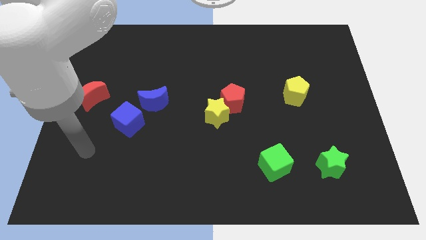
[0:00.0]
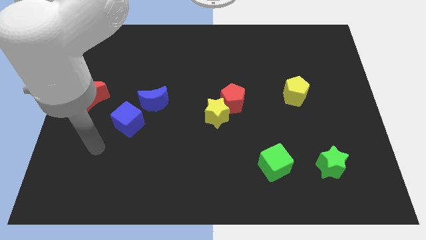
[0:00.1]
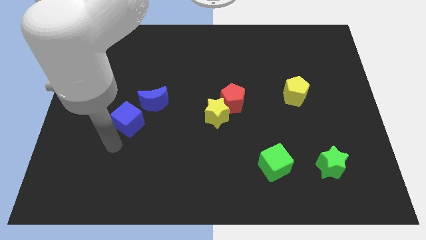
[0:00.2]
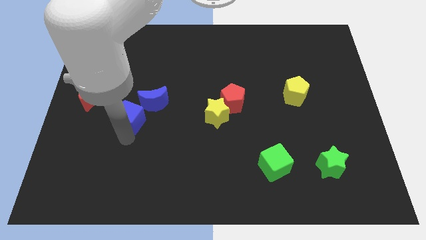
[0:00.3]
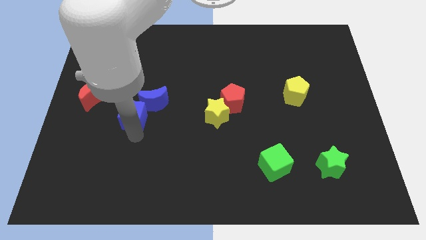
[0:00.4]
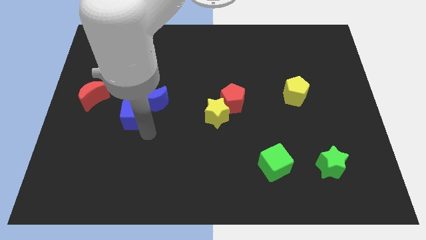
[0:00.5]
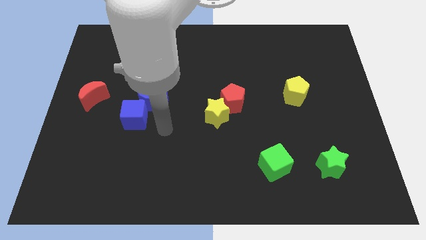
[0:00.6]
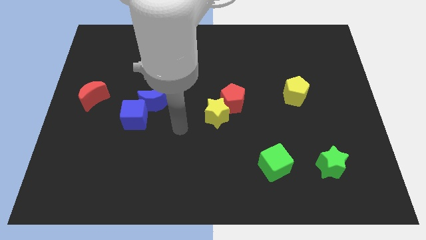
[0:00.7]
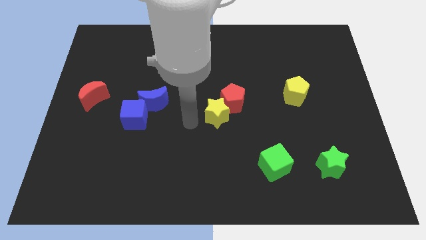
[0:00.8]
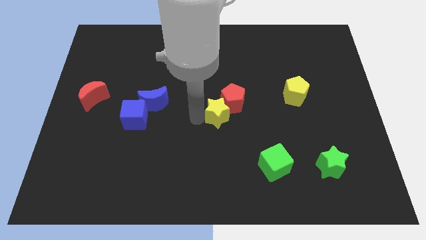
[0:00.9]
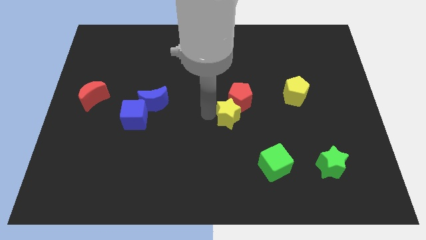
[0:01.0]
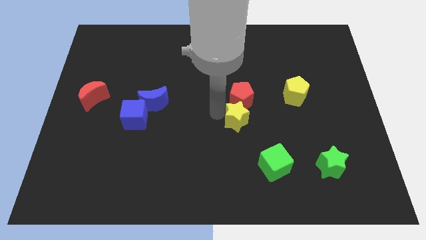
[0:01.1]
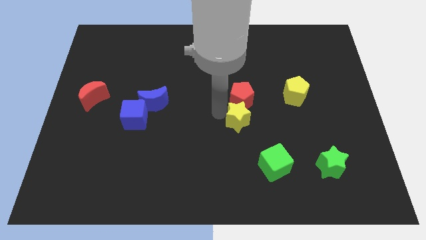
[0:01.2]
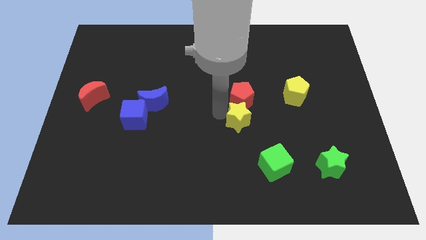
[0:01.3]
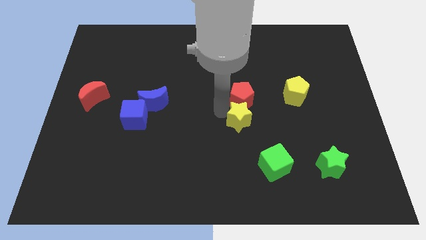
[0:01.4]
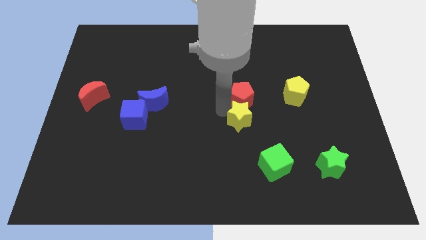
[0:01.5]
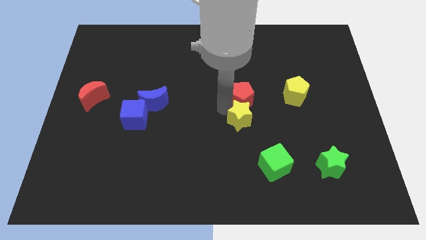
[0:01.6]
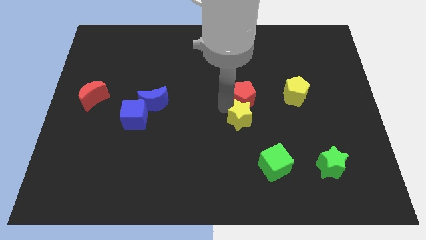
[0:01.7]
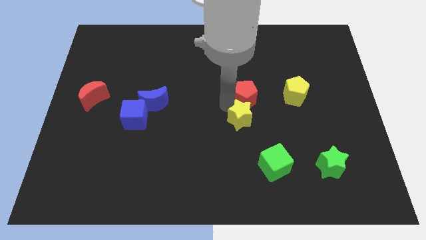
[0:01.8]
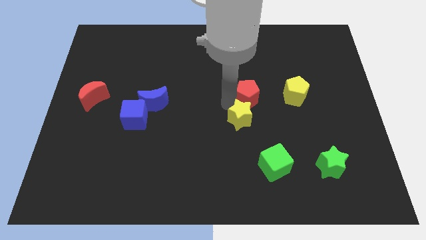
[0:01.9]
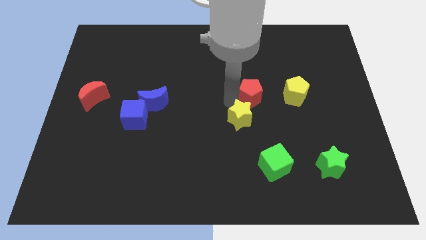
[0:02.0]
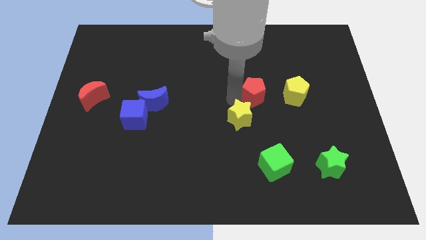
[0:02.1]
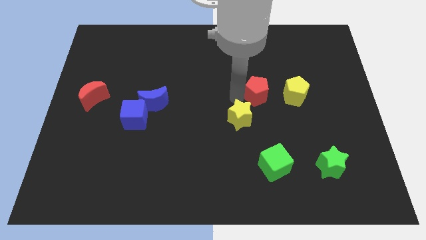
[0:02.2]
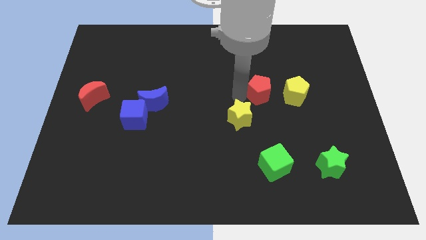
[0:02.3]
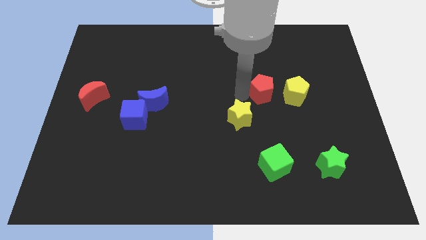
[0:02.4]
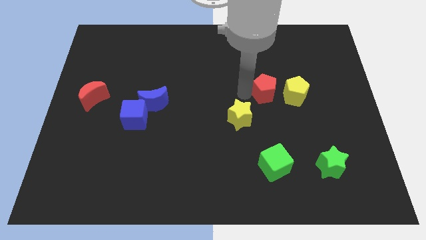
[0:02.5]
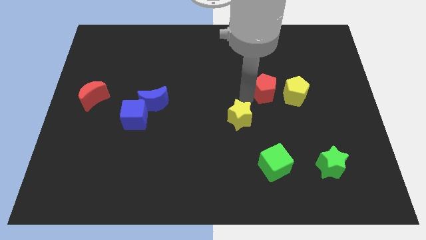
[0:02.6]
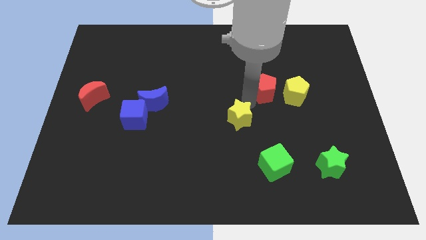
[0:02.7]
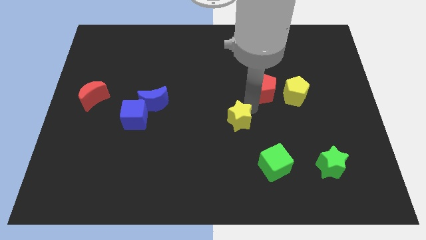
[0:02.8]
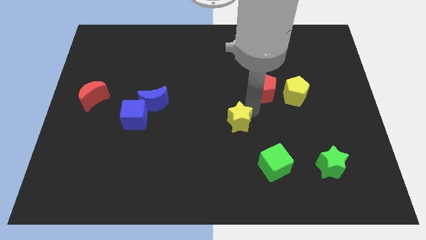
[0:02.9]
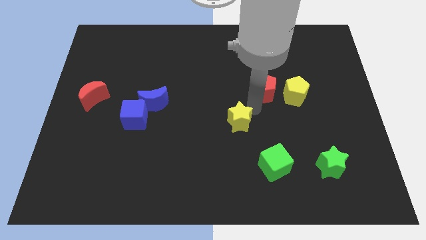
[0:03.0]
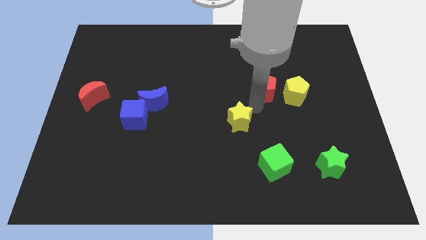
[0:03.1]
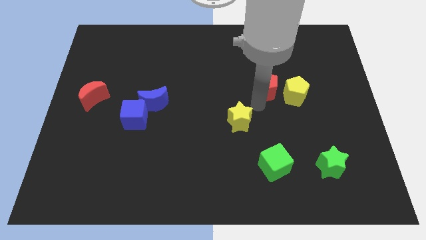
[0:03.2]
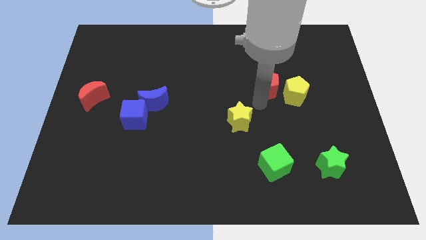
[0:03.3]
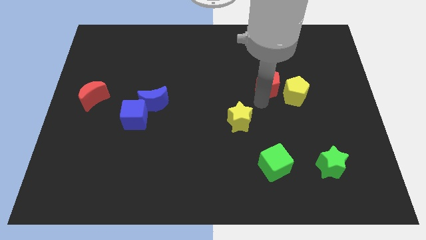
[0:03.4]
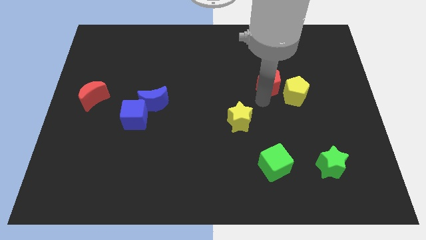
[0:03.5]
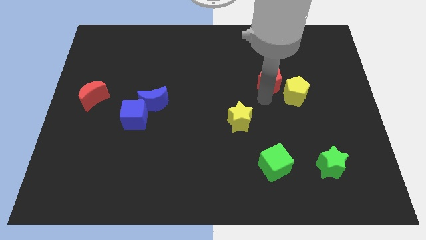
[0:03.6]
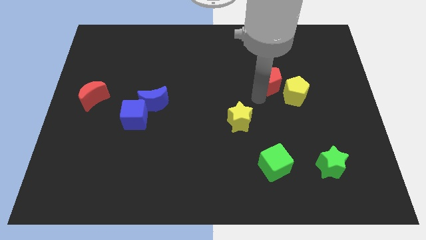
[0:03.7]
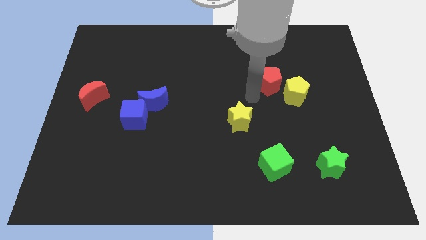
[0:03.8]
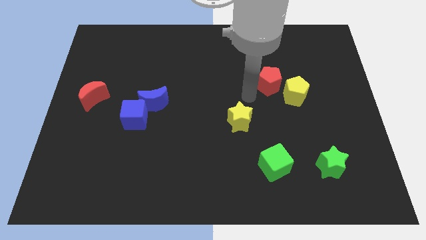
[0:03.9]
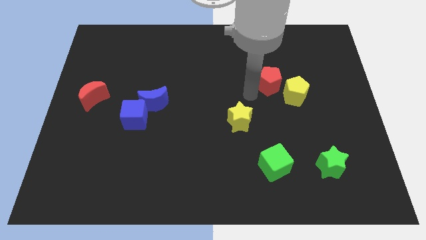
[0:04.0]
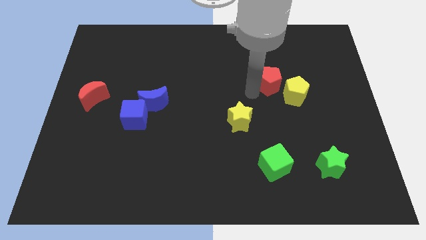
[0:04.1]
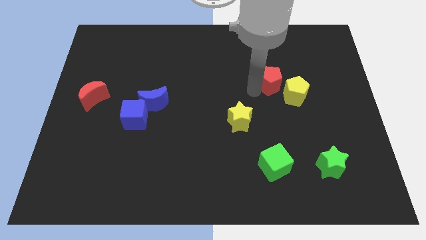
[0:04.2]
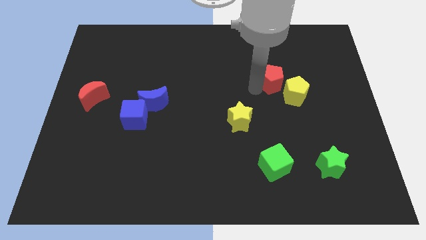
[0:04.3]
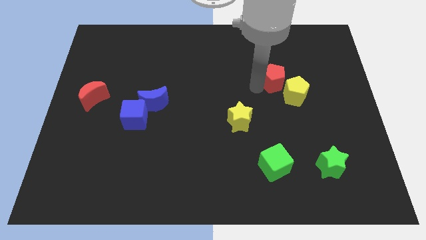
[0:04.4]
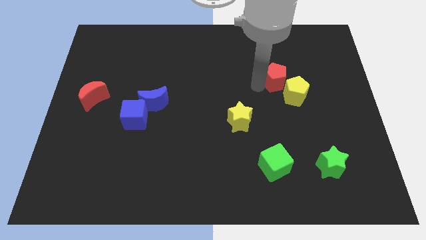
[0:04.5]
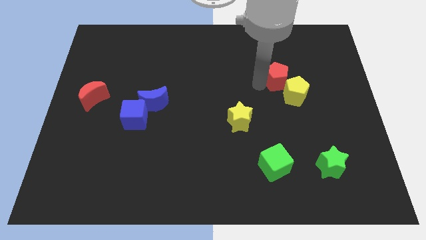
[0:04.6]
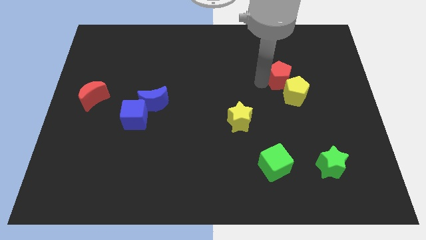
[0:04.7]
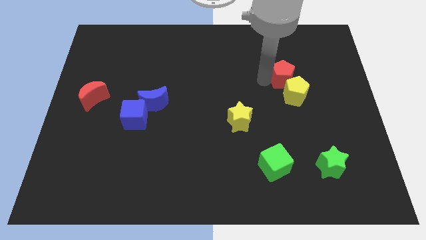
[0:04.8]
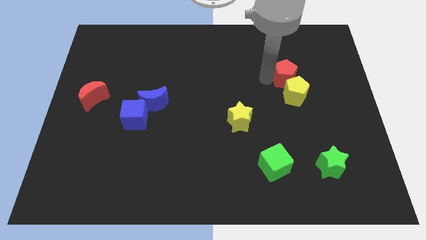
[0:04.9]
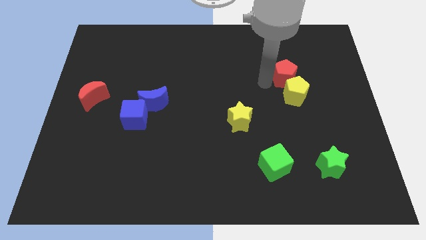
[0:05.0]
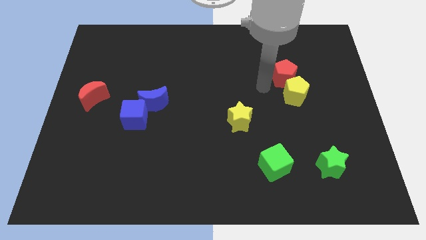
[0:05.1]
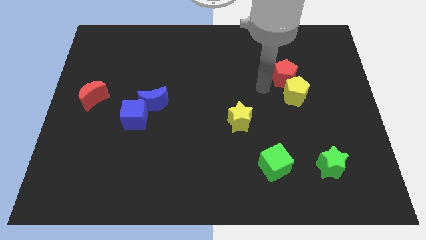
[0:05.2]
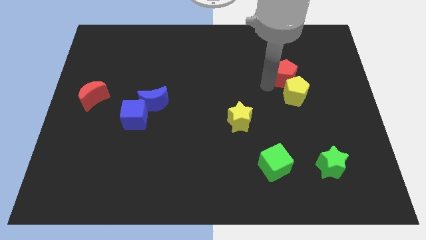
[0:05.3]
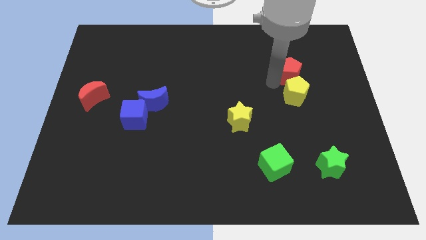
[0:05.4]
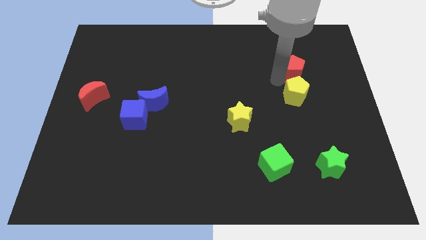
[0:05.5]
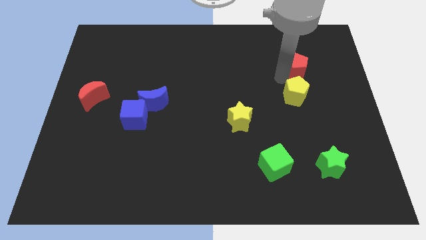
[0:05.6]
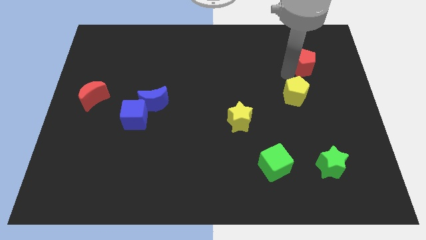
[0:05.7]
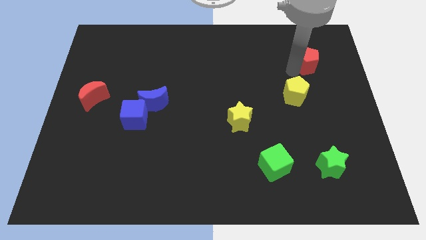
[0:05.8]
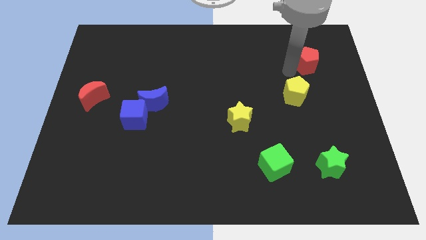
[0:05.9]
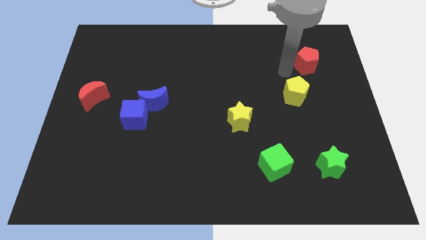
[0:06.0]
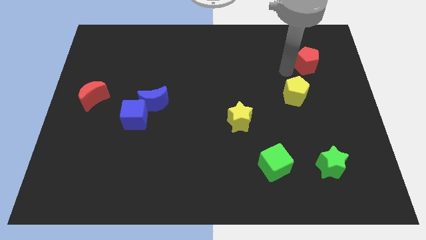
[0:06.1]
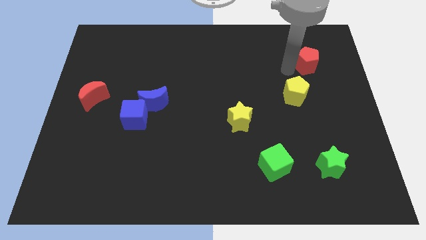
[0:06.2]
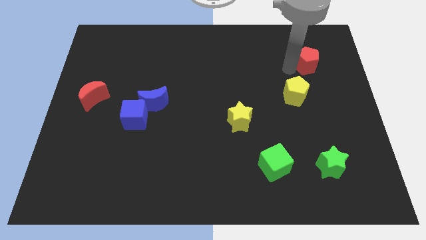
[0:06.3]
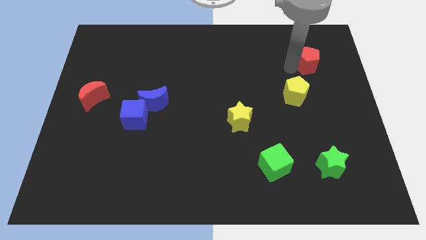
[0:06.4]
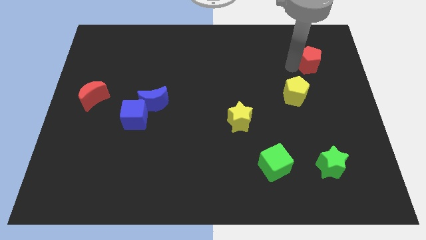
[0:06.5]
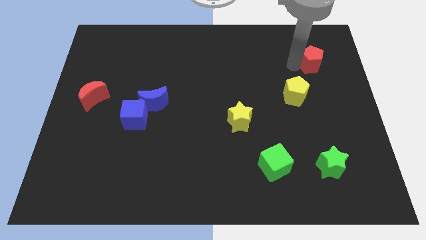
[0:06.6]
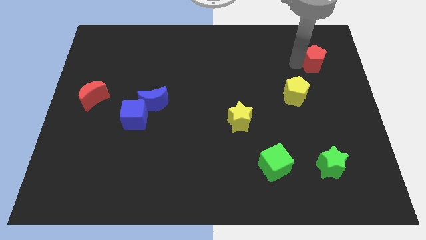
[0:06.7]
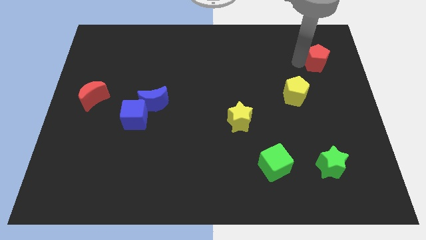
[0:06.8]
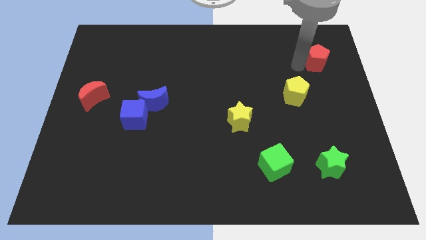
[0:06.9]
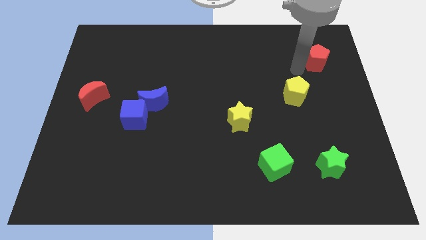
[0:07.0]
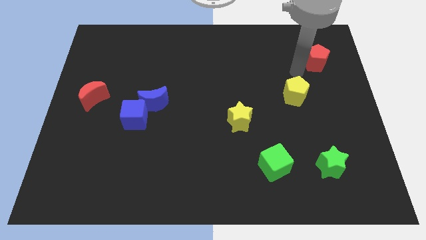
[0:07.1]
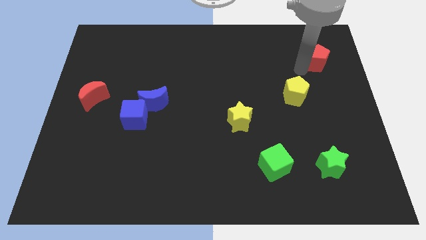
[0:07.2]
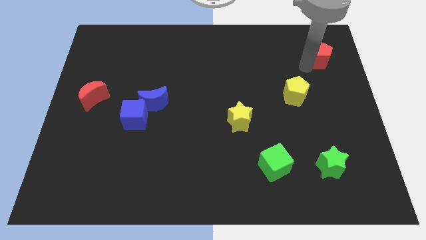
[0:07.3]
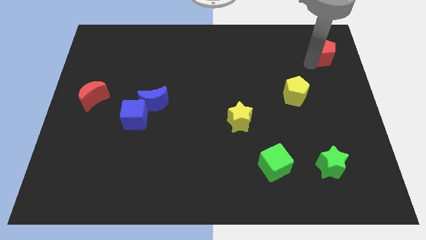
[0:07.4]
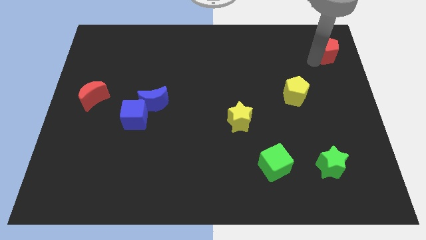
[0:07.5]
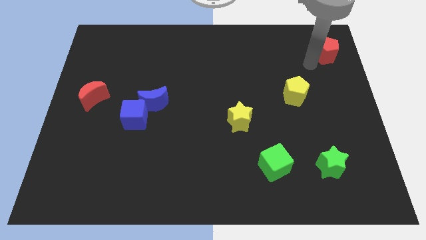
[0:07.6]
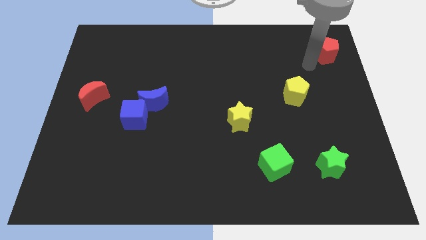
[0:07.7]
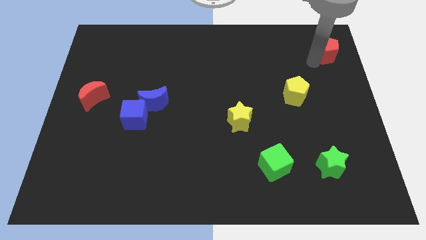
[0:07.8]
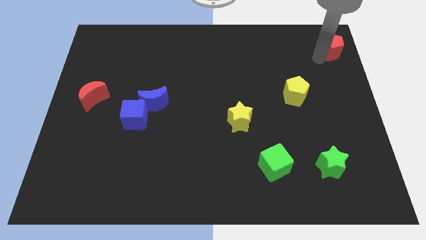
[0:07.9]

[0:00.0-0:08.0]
move the red pentagon to the upper right corner
